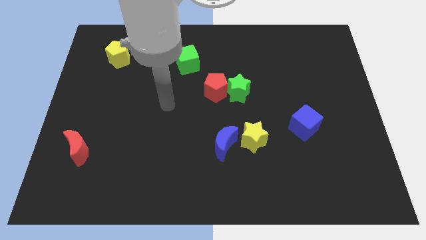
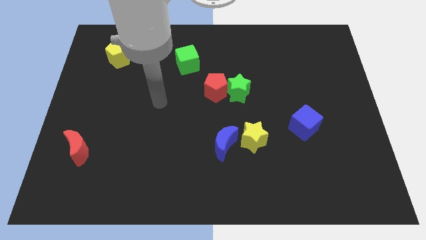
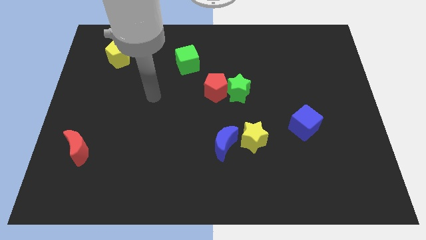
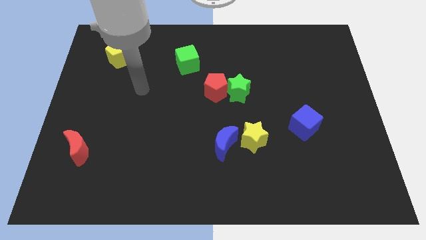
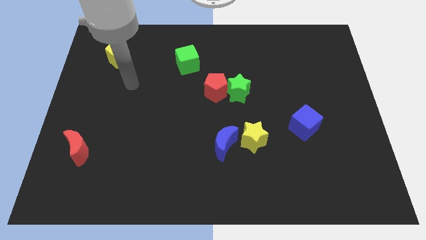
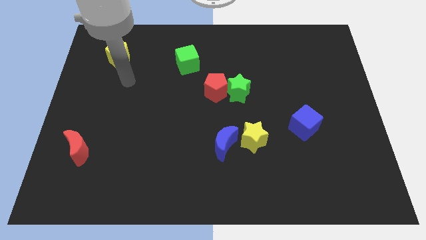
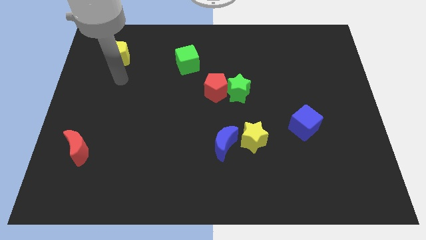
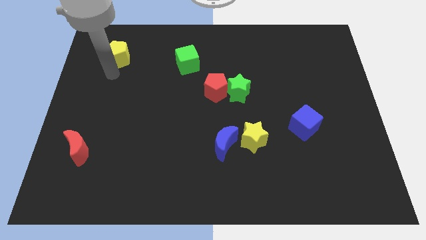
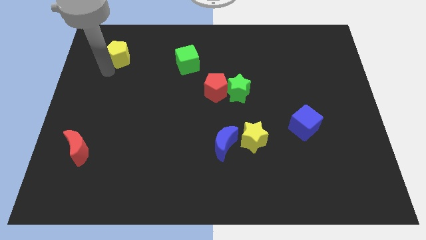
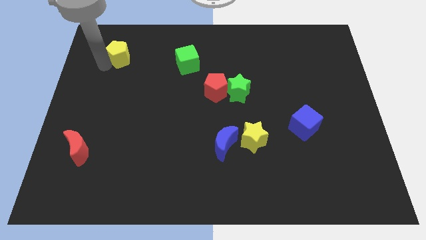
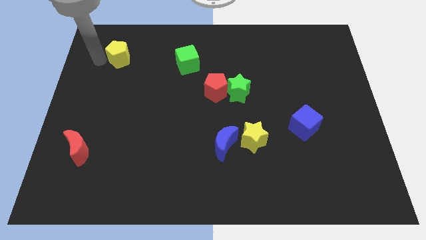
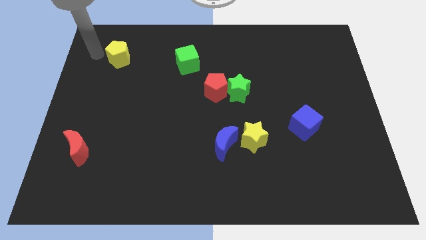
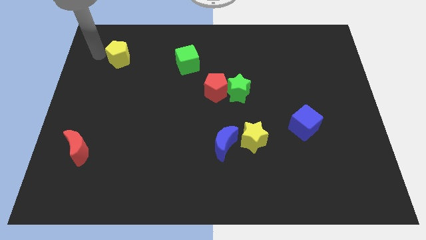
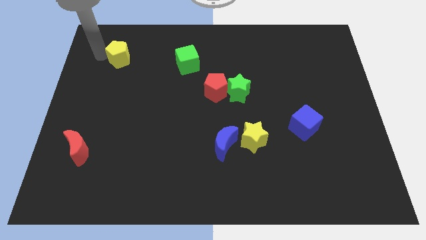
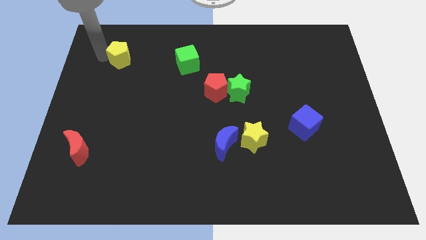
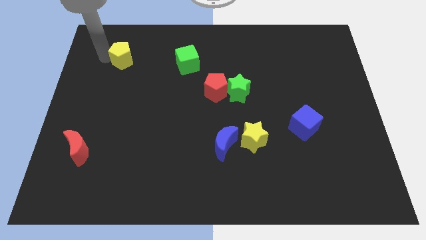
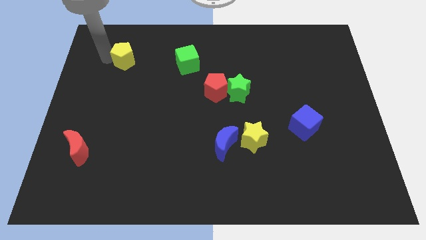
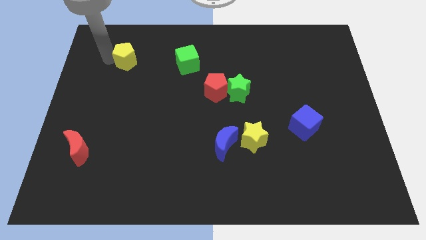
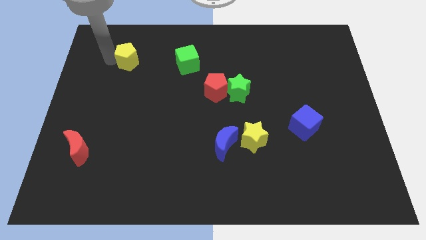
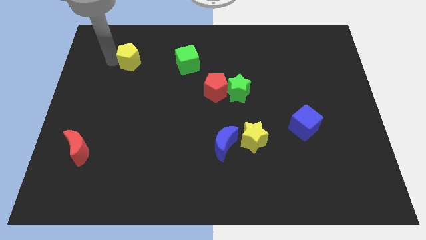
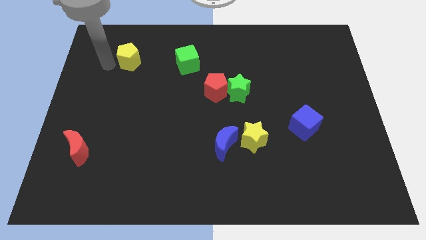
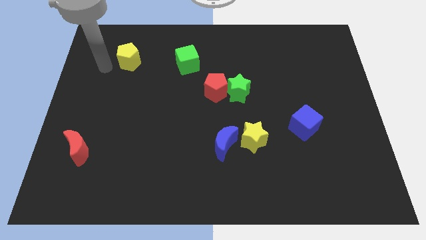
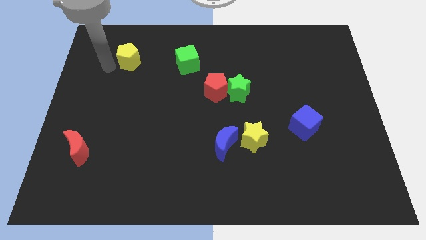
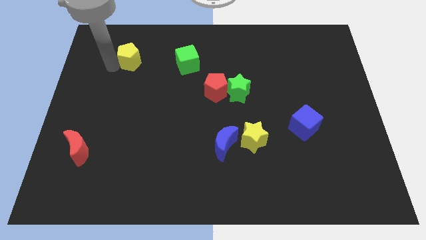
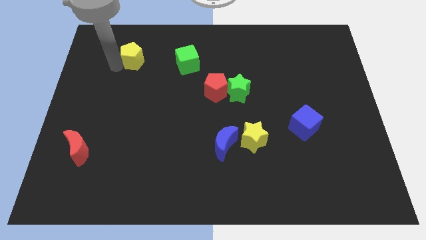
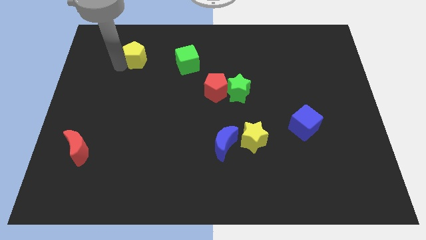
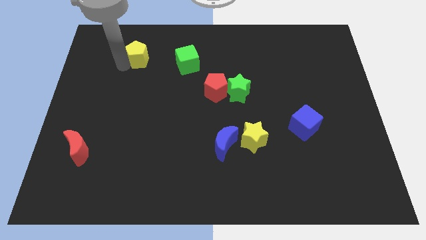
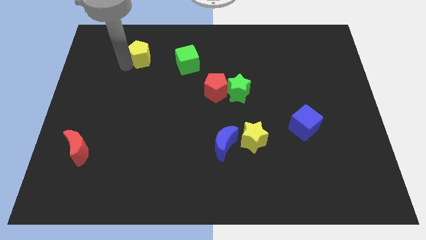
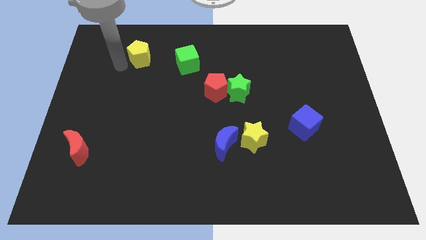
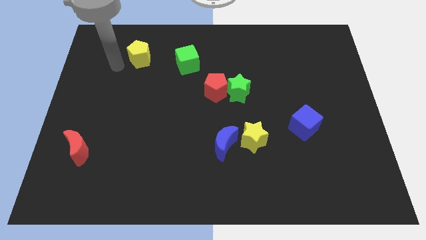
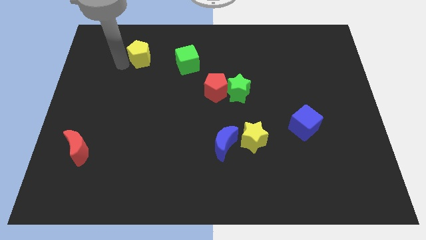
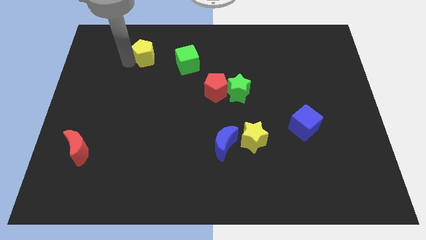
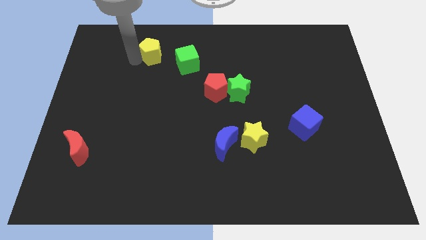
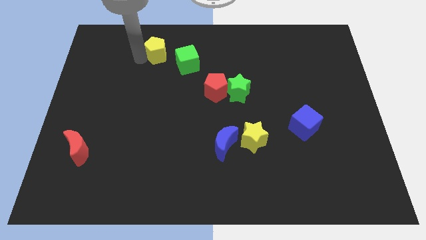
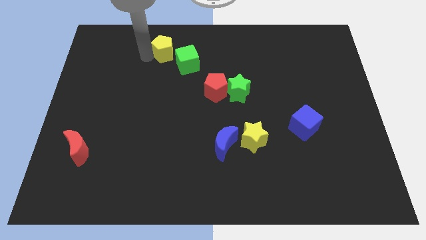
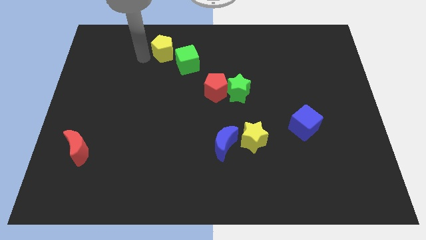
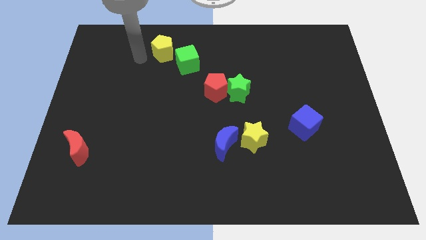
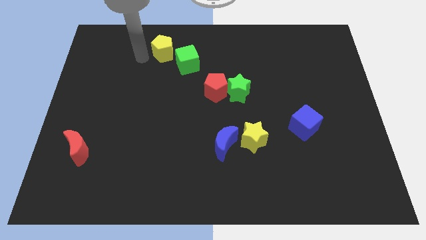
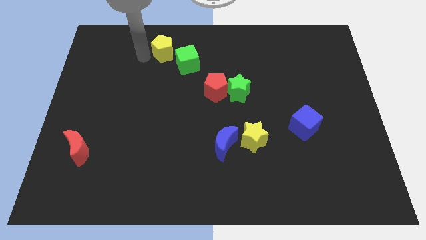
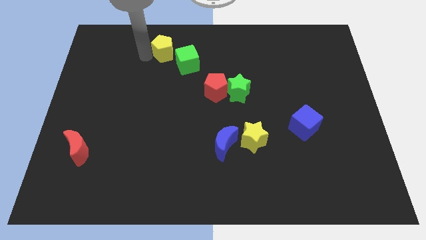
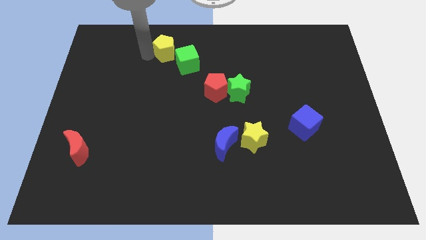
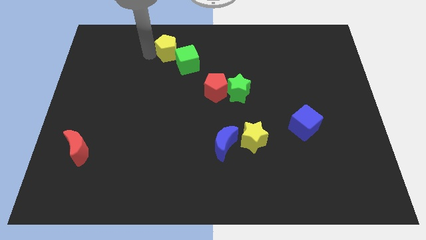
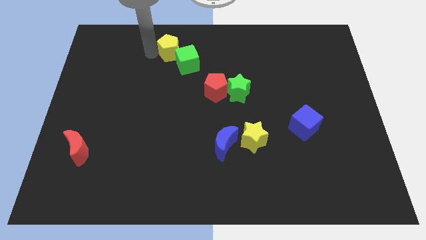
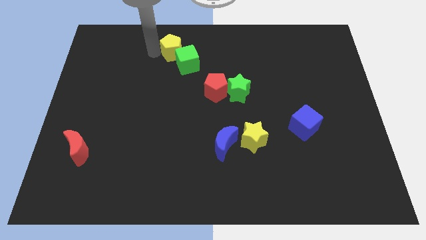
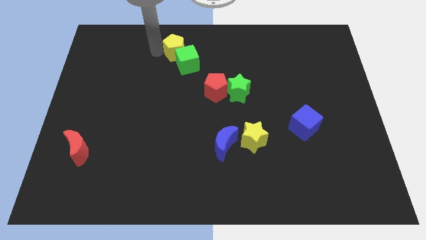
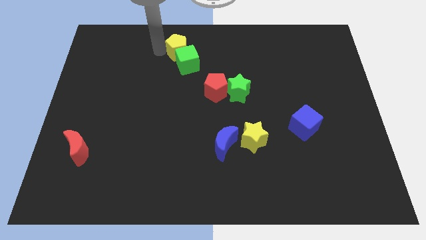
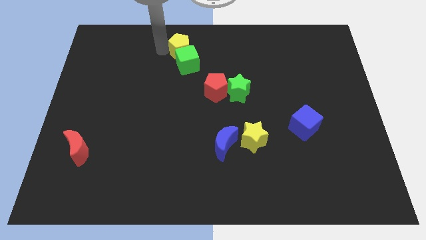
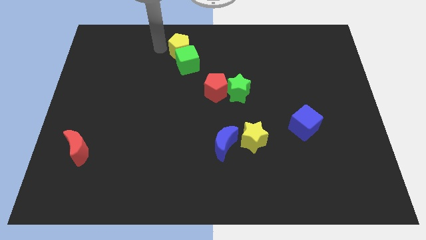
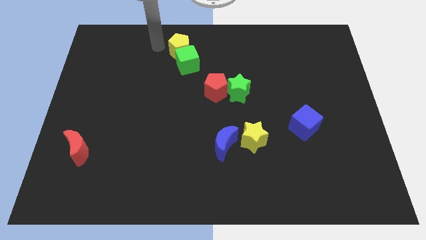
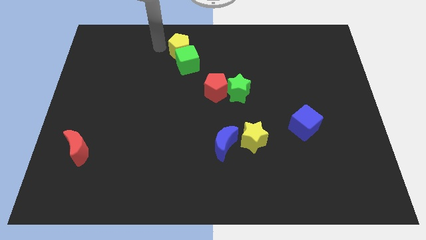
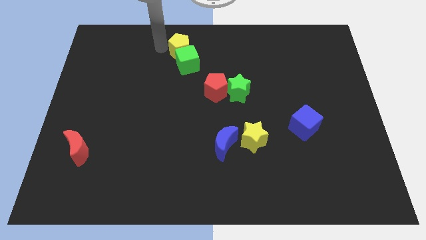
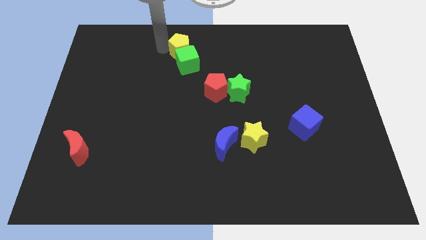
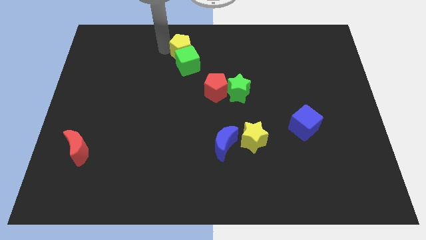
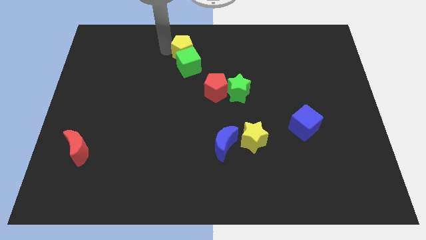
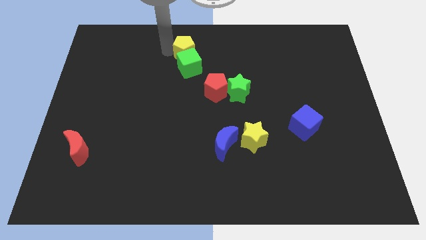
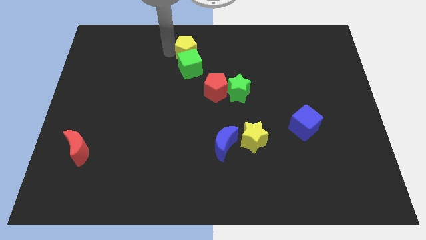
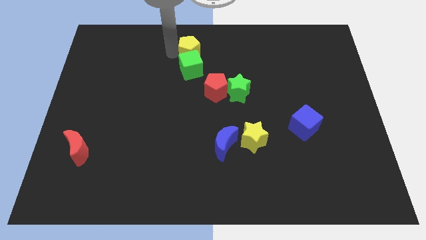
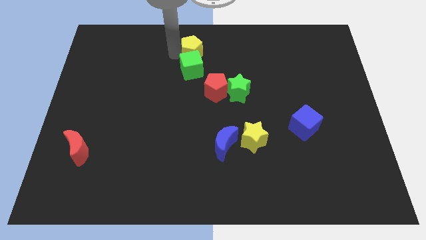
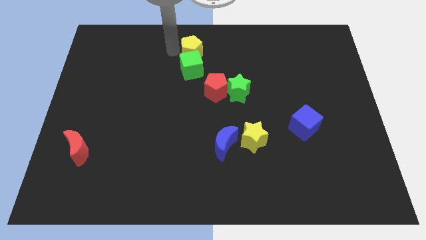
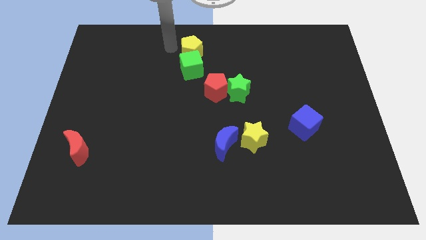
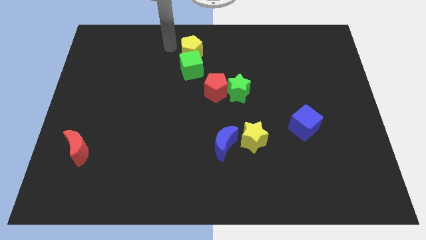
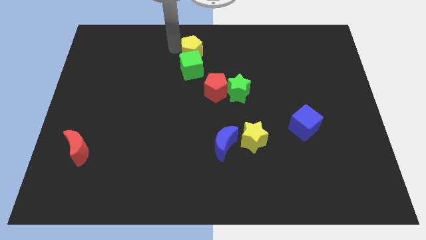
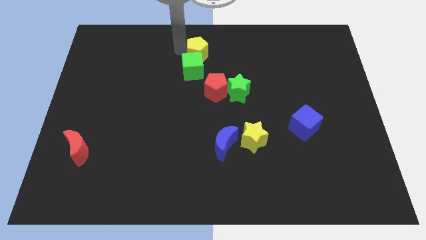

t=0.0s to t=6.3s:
put the yellow pentagon to the top of the red pentagon
